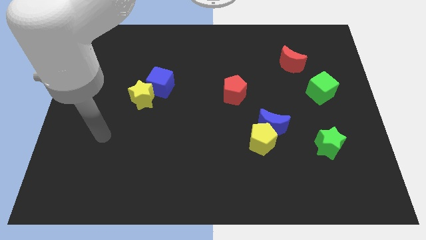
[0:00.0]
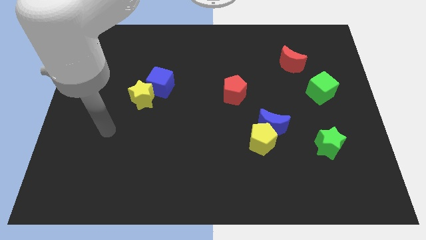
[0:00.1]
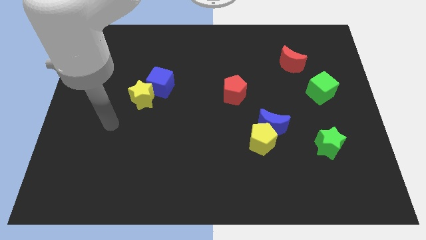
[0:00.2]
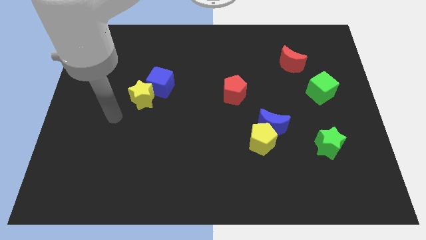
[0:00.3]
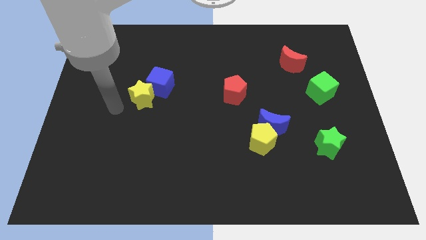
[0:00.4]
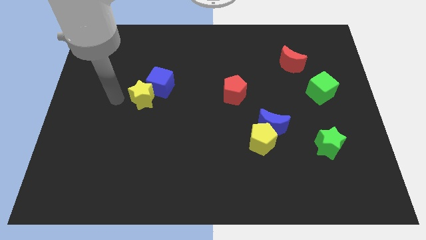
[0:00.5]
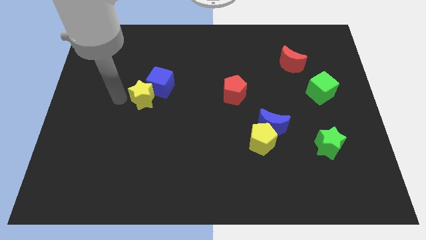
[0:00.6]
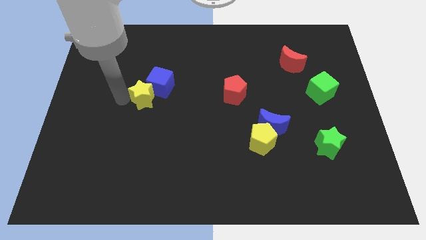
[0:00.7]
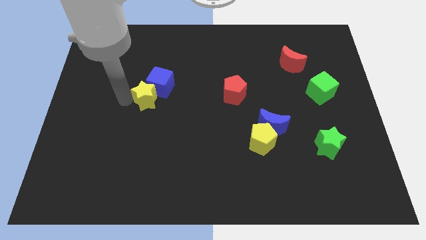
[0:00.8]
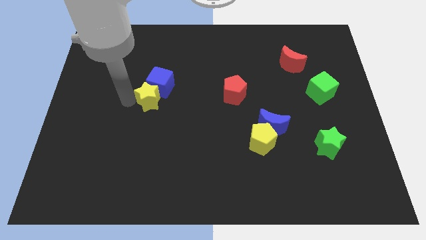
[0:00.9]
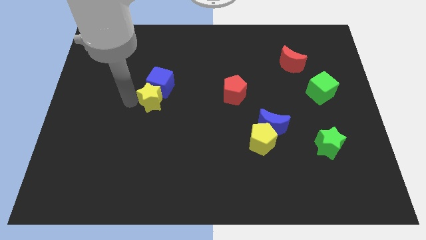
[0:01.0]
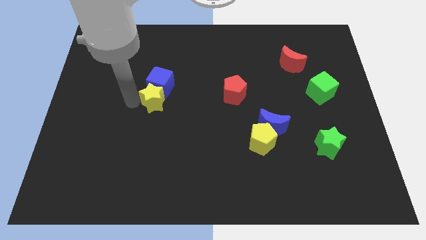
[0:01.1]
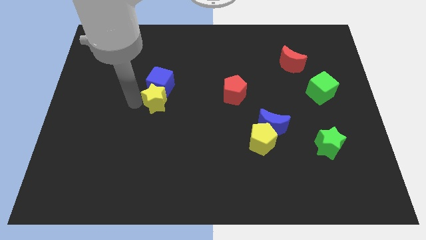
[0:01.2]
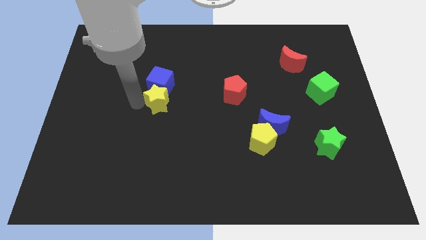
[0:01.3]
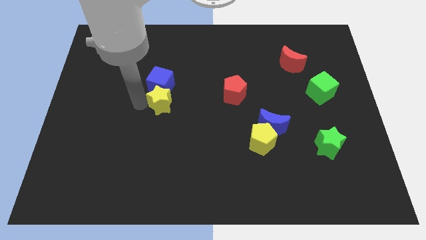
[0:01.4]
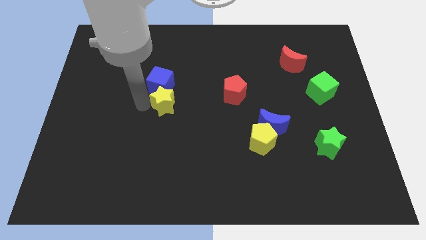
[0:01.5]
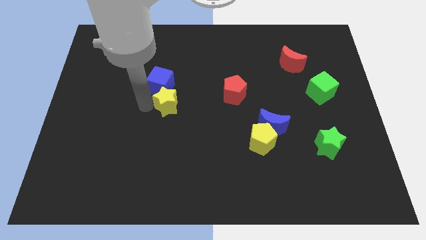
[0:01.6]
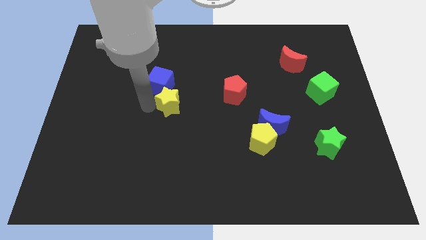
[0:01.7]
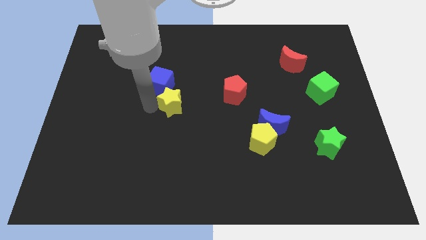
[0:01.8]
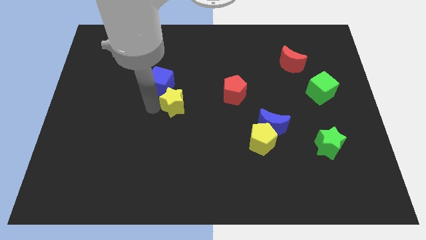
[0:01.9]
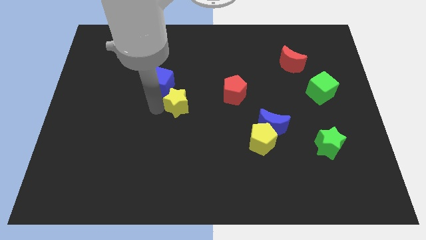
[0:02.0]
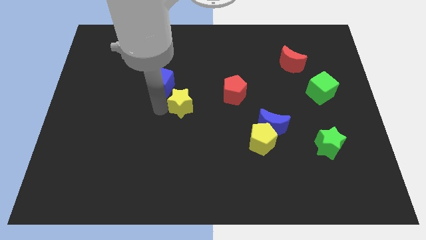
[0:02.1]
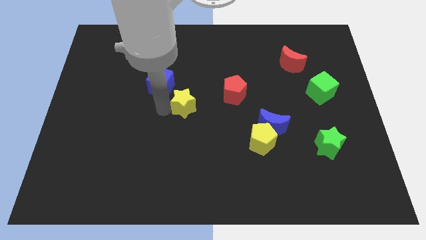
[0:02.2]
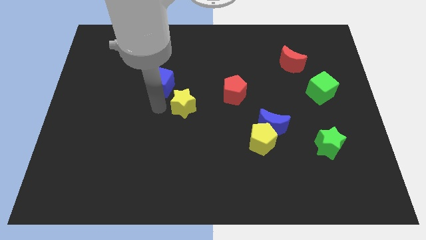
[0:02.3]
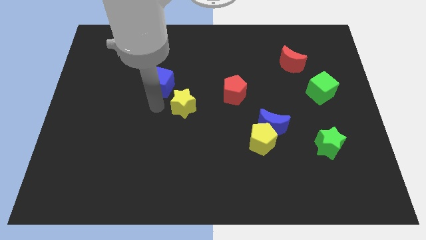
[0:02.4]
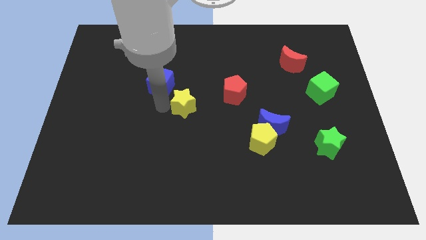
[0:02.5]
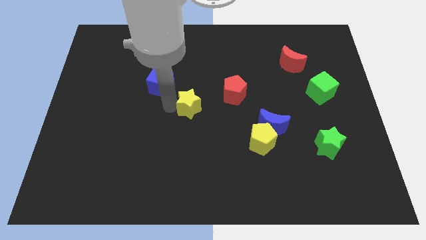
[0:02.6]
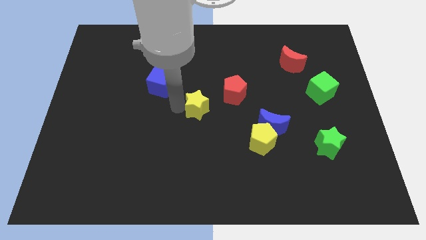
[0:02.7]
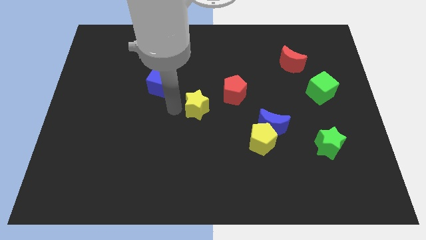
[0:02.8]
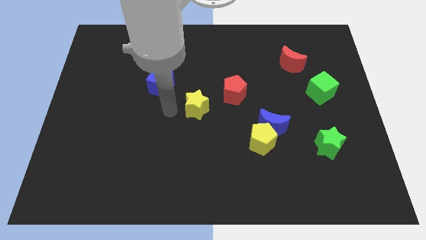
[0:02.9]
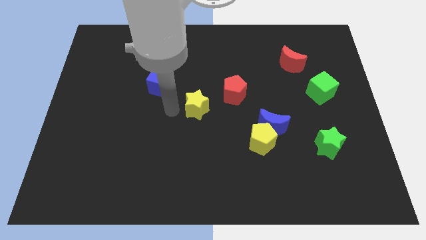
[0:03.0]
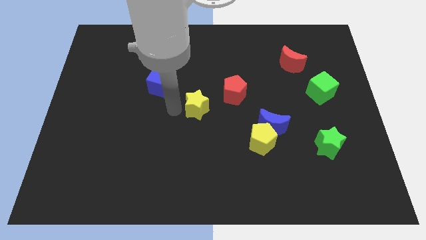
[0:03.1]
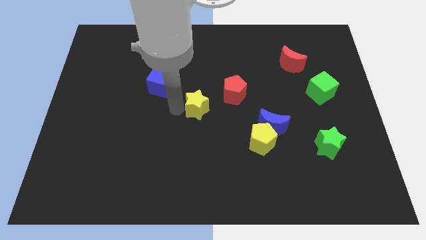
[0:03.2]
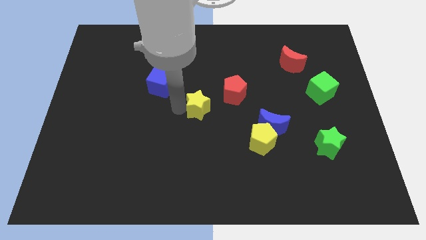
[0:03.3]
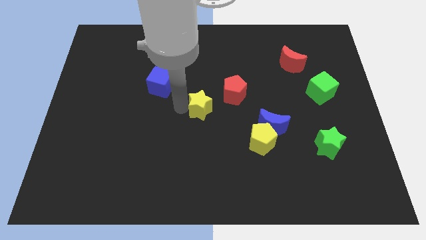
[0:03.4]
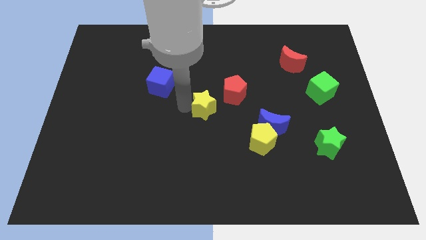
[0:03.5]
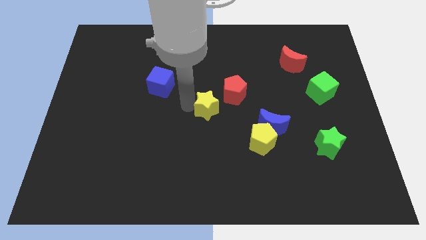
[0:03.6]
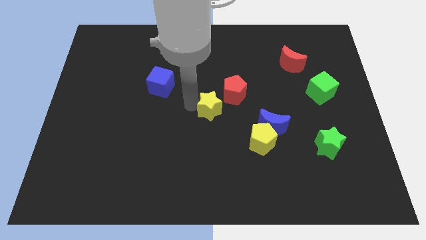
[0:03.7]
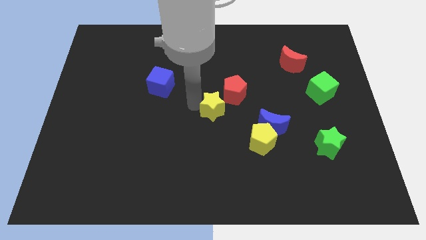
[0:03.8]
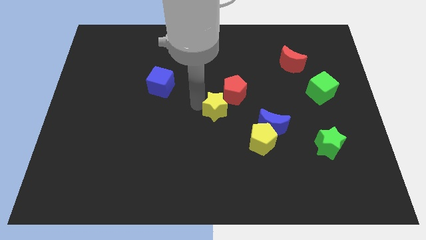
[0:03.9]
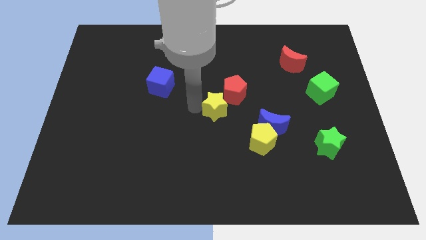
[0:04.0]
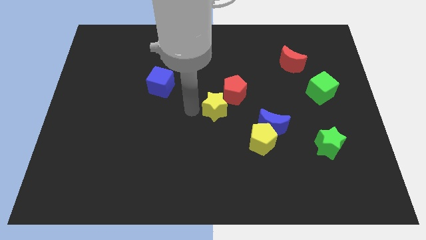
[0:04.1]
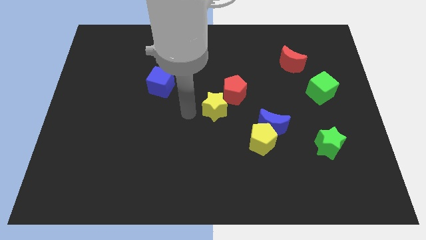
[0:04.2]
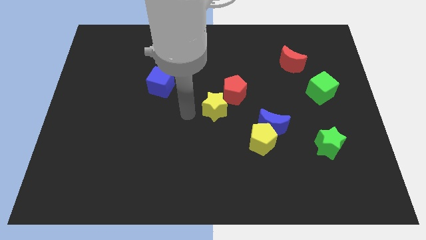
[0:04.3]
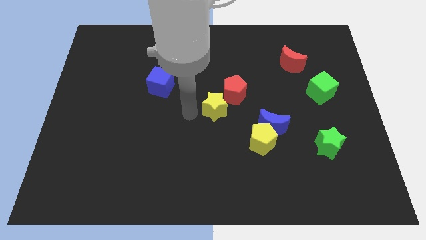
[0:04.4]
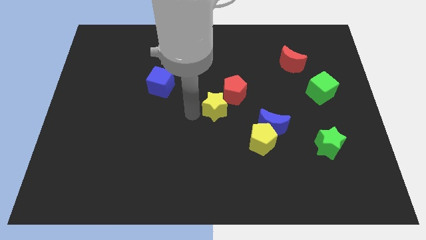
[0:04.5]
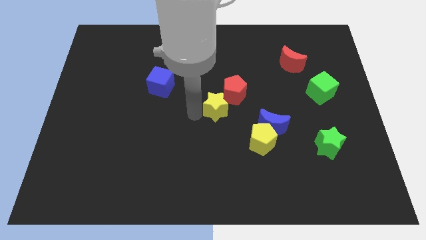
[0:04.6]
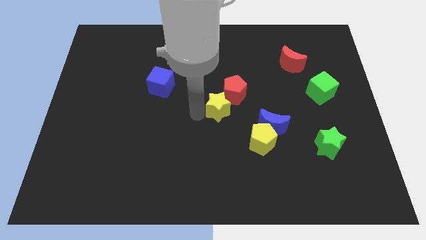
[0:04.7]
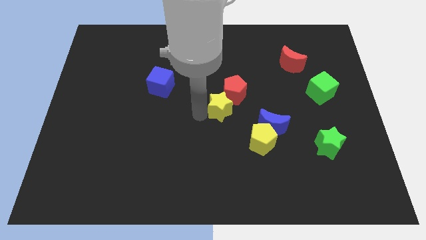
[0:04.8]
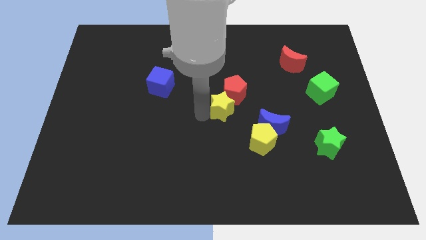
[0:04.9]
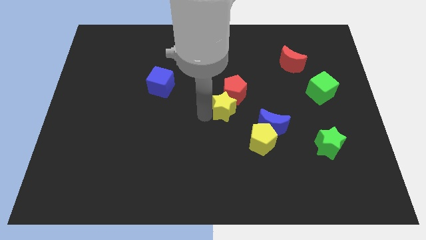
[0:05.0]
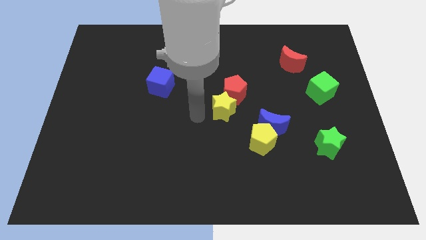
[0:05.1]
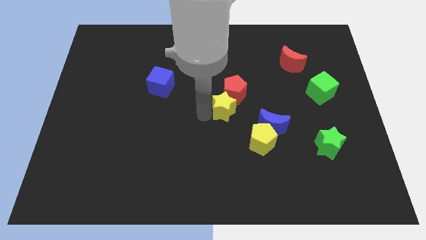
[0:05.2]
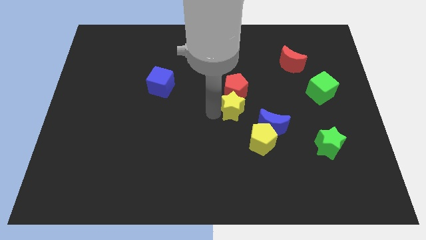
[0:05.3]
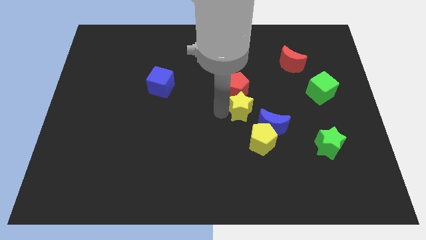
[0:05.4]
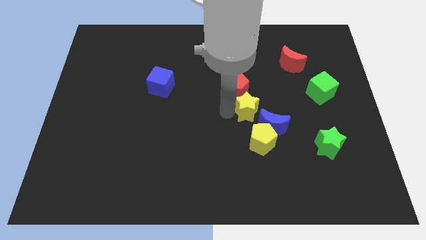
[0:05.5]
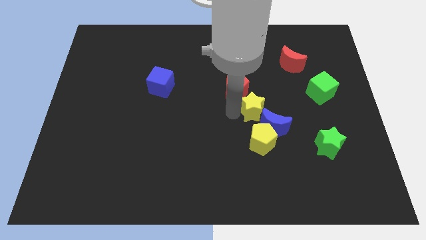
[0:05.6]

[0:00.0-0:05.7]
put the yellow star above the blue moon

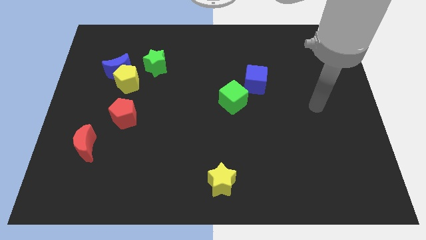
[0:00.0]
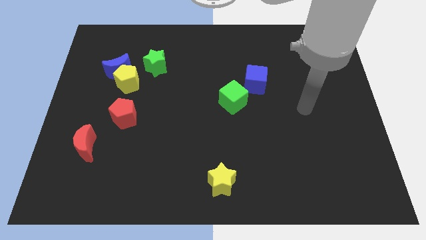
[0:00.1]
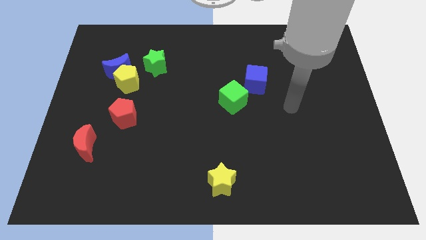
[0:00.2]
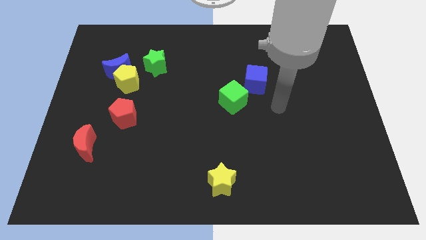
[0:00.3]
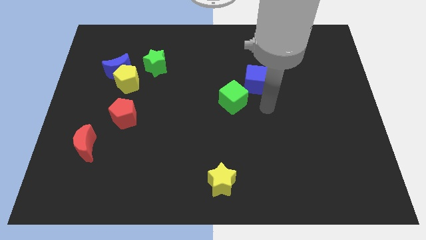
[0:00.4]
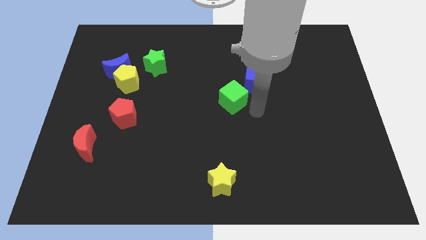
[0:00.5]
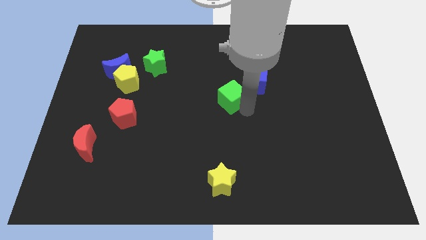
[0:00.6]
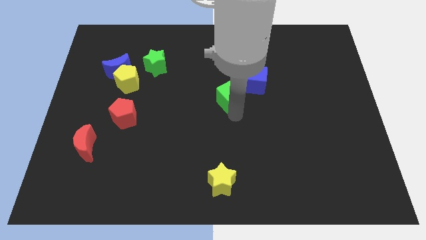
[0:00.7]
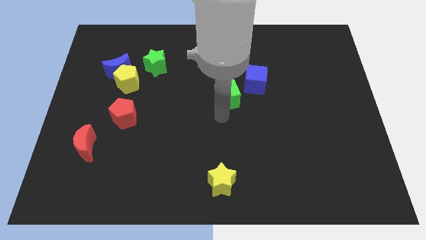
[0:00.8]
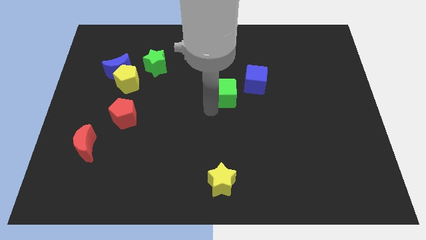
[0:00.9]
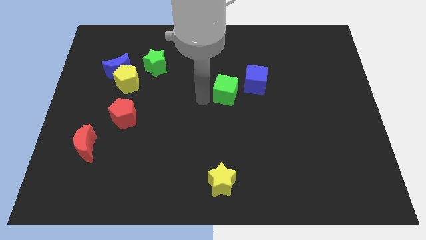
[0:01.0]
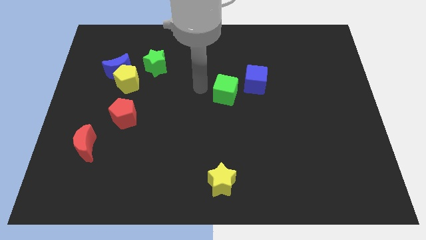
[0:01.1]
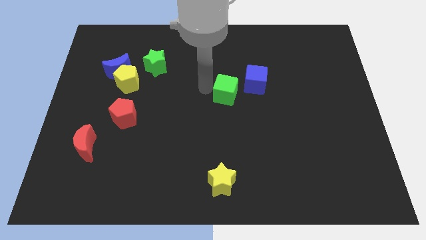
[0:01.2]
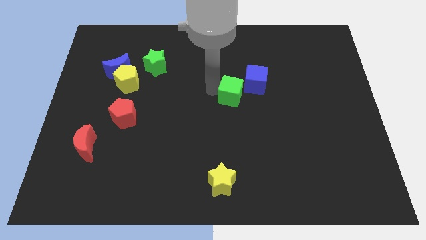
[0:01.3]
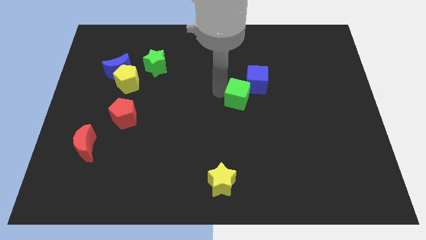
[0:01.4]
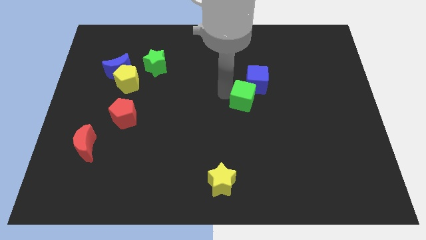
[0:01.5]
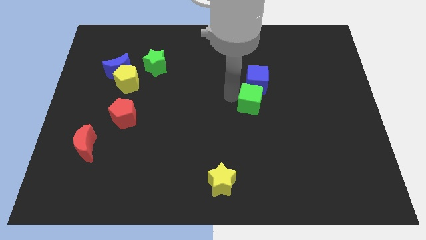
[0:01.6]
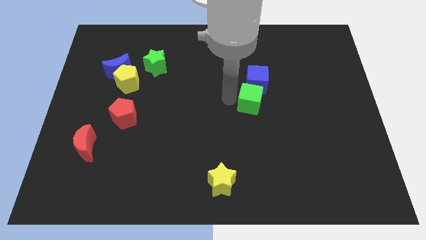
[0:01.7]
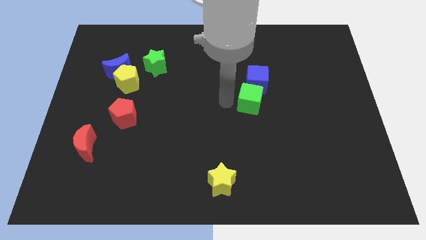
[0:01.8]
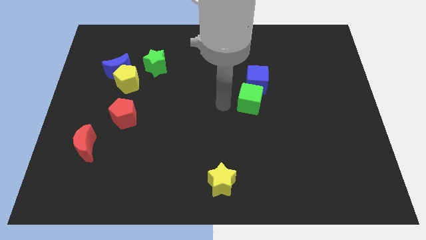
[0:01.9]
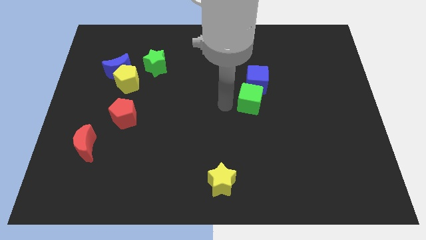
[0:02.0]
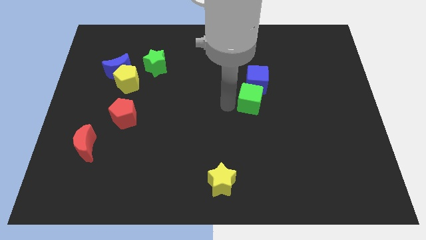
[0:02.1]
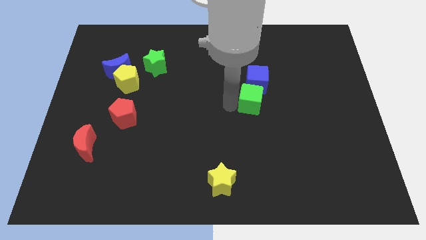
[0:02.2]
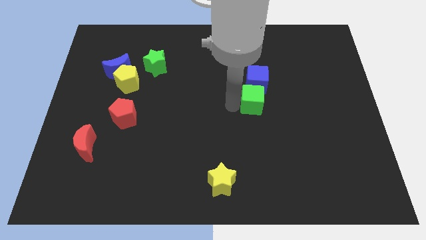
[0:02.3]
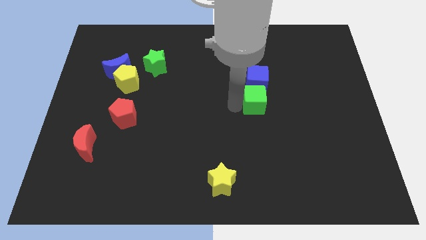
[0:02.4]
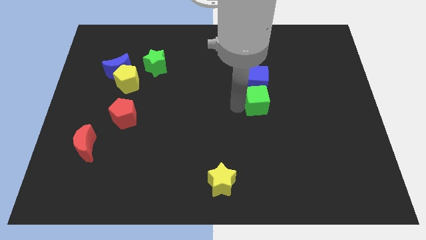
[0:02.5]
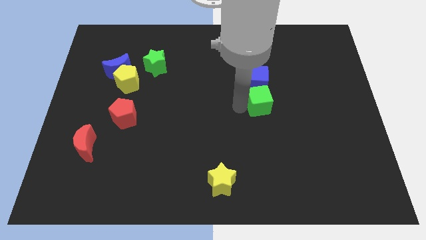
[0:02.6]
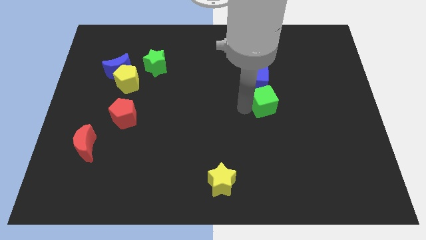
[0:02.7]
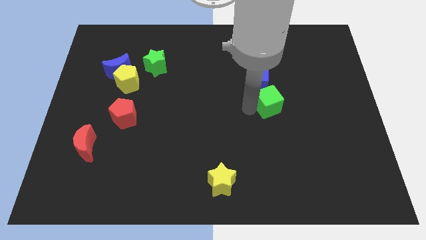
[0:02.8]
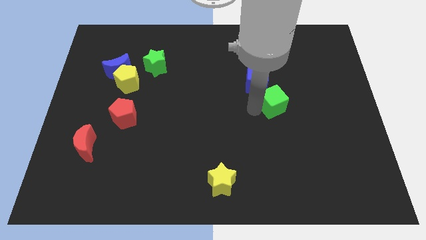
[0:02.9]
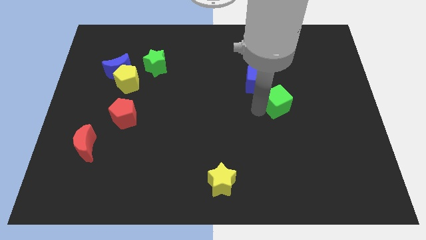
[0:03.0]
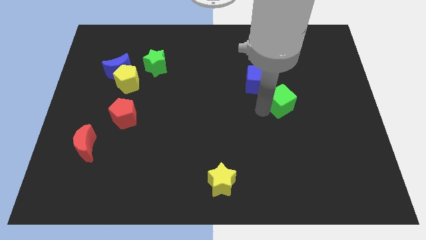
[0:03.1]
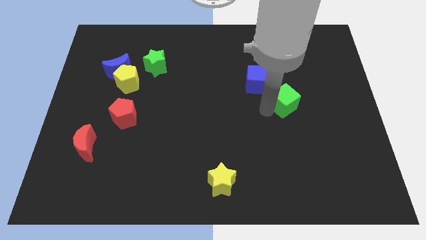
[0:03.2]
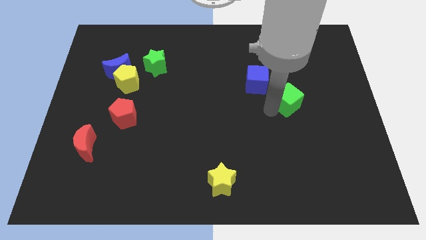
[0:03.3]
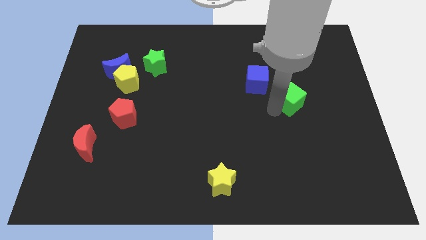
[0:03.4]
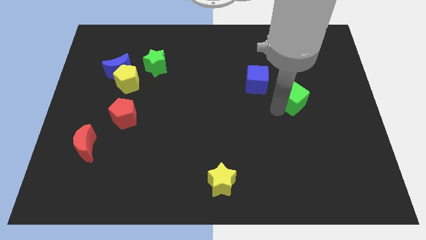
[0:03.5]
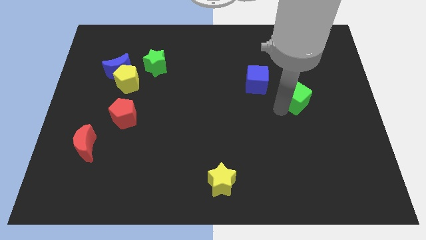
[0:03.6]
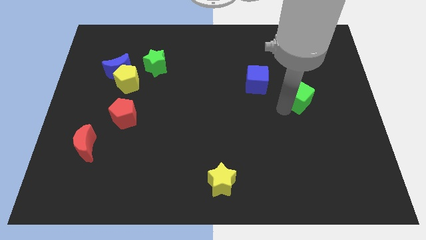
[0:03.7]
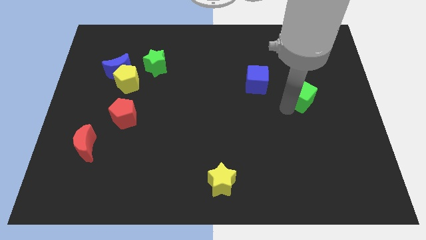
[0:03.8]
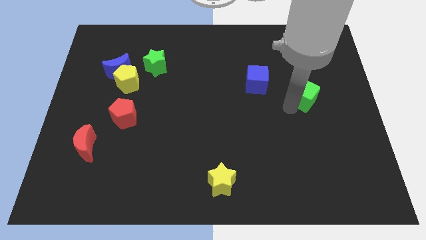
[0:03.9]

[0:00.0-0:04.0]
put the green cube right of the blue cube
